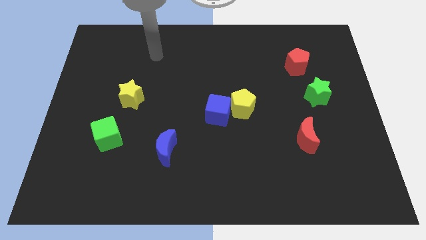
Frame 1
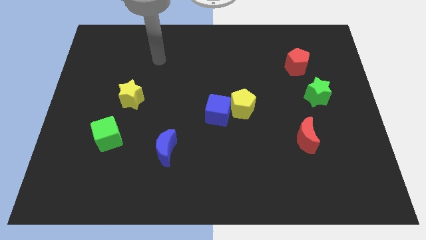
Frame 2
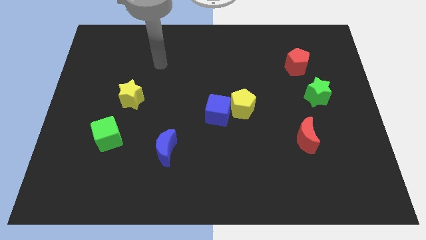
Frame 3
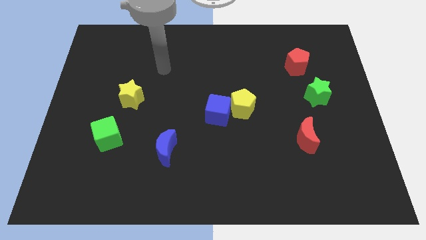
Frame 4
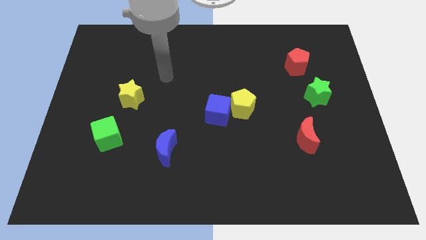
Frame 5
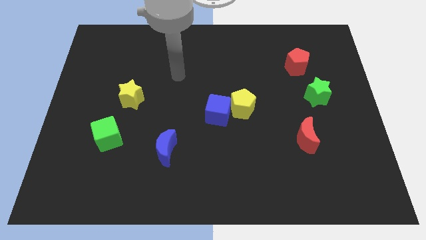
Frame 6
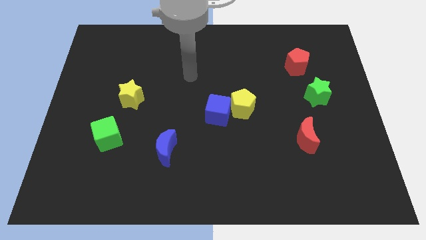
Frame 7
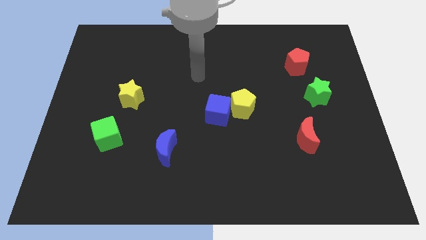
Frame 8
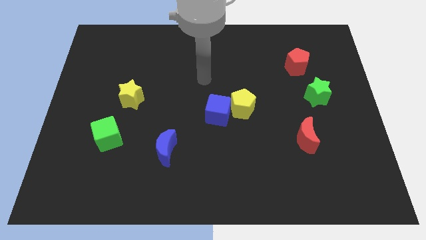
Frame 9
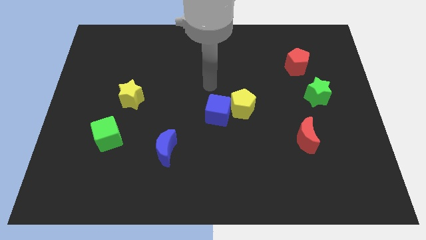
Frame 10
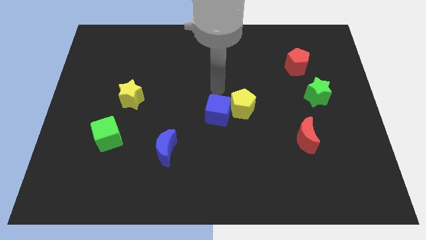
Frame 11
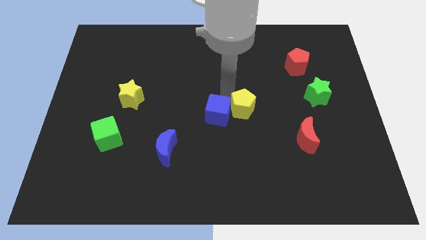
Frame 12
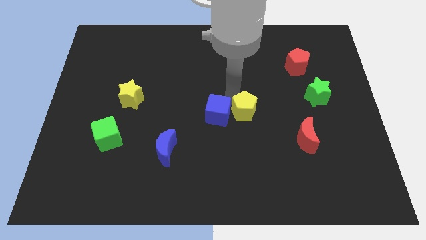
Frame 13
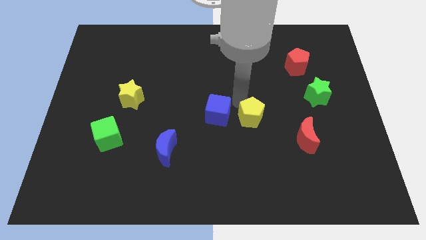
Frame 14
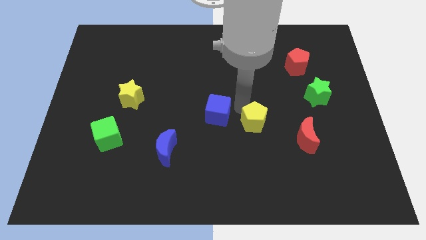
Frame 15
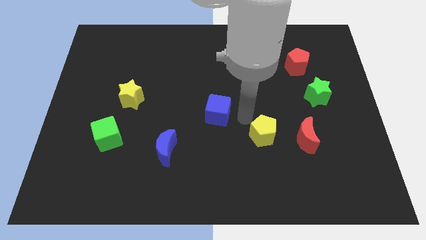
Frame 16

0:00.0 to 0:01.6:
separate the blue cube from the yellow pentagon

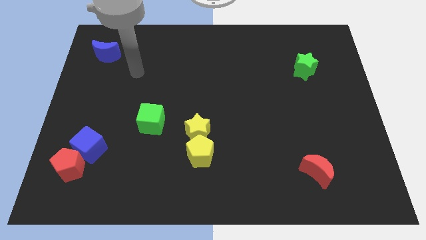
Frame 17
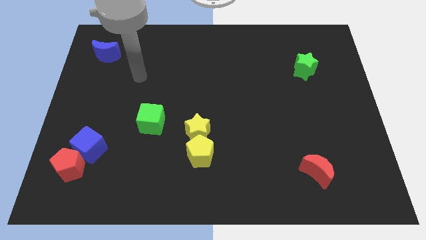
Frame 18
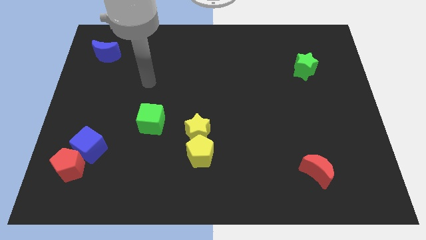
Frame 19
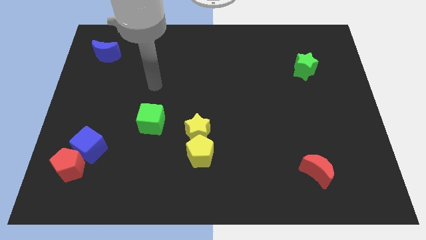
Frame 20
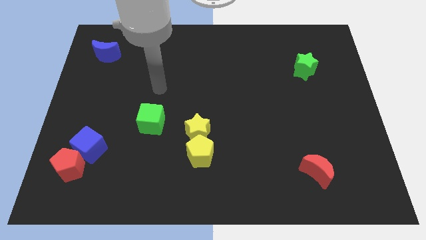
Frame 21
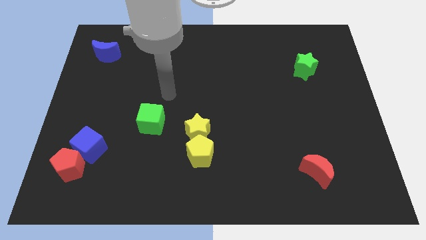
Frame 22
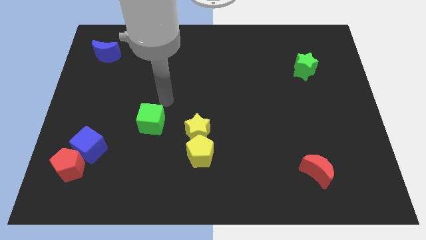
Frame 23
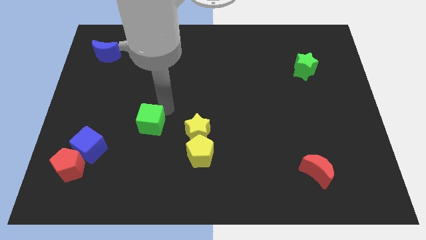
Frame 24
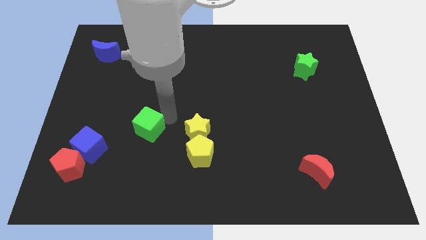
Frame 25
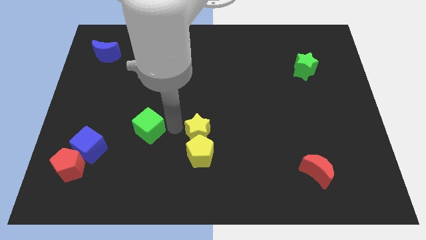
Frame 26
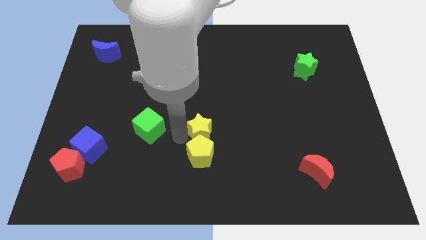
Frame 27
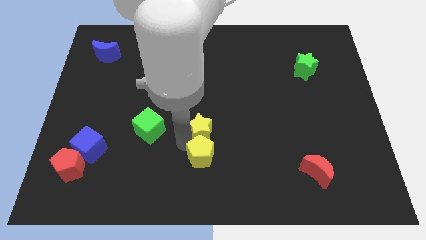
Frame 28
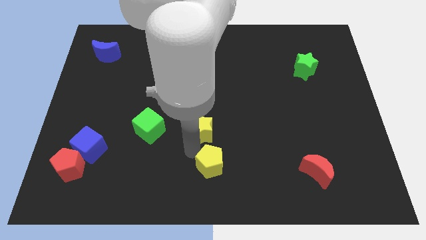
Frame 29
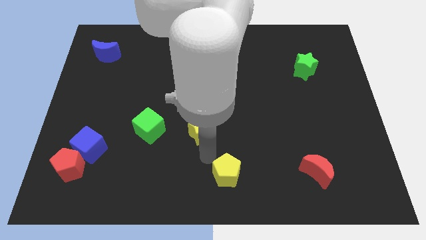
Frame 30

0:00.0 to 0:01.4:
pull the yellow star apart from the yellow pentagon

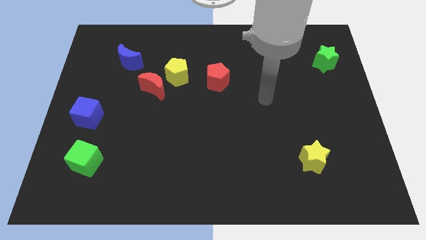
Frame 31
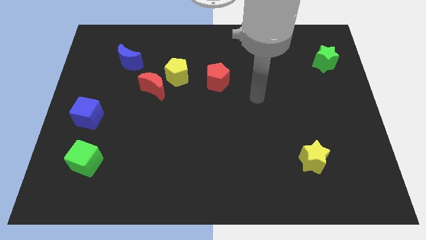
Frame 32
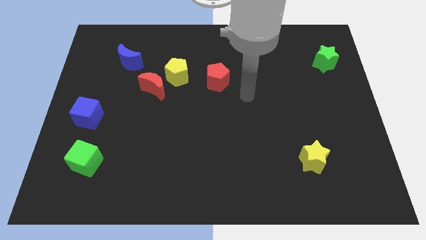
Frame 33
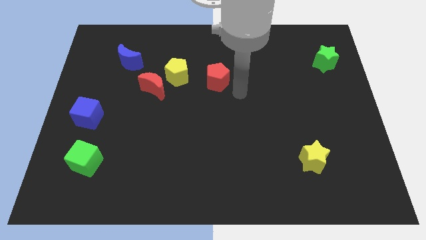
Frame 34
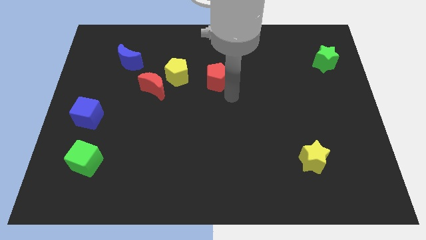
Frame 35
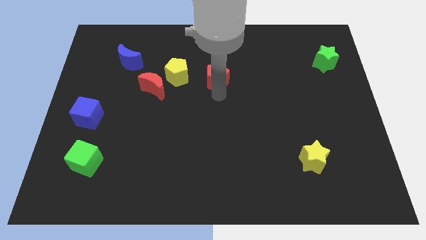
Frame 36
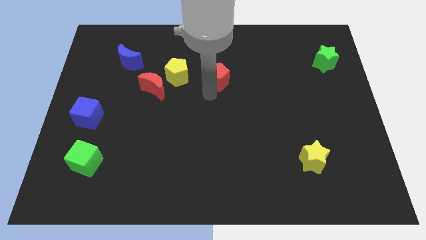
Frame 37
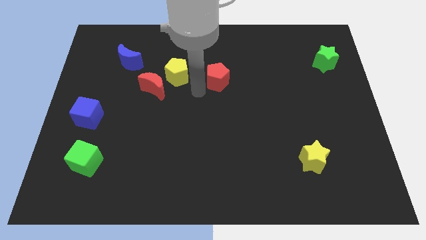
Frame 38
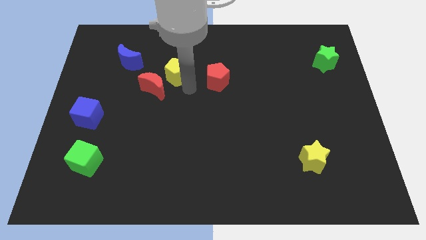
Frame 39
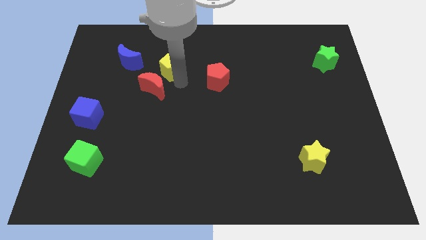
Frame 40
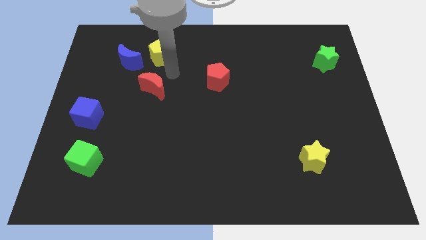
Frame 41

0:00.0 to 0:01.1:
move the red moon away from the yellow pentagon

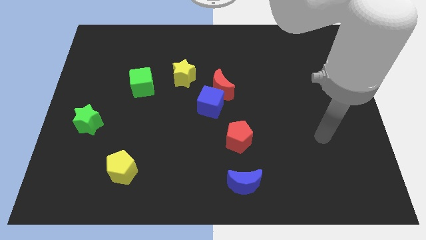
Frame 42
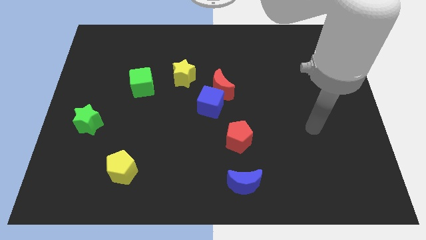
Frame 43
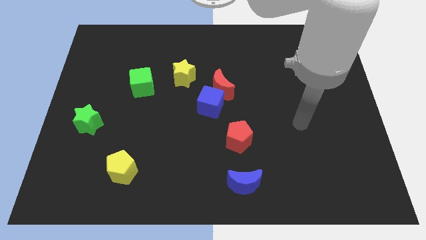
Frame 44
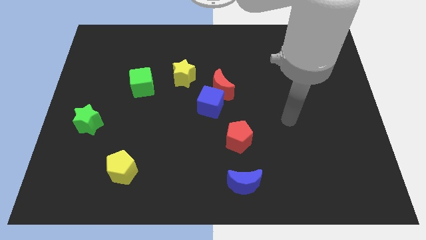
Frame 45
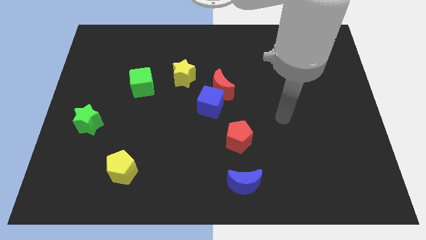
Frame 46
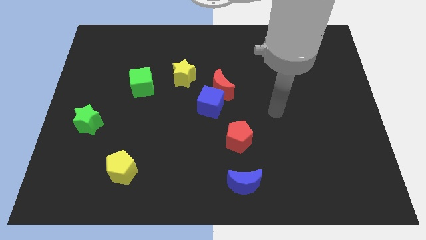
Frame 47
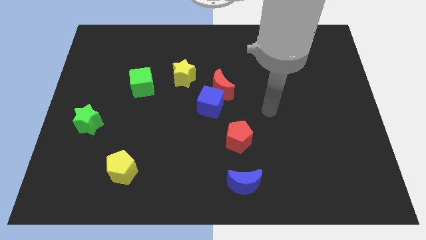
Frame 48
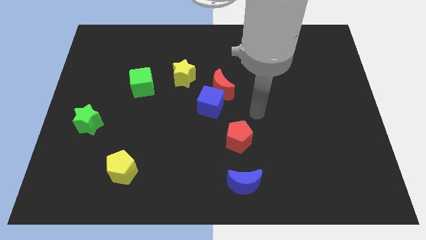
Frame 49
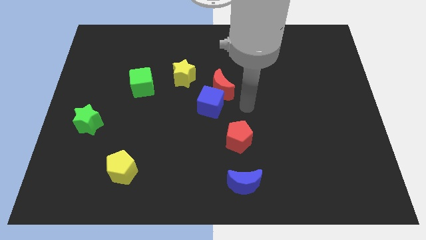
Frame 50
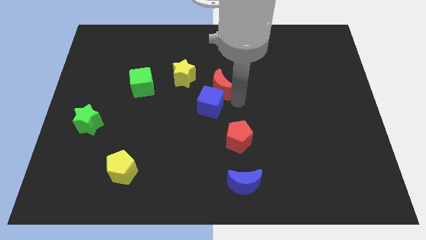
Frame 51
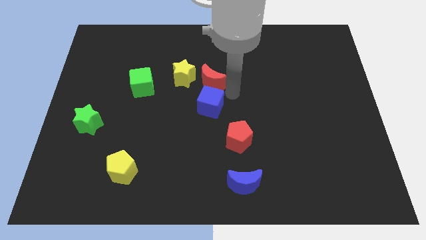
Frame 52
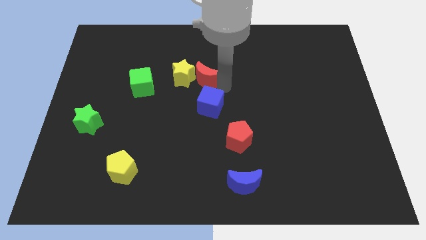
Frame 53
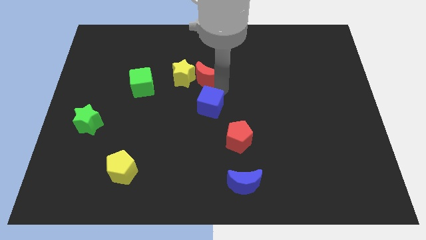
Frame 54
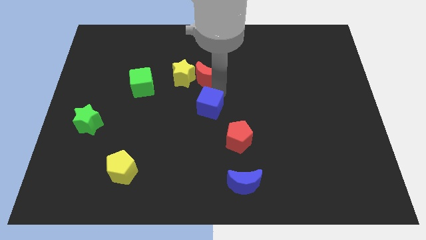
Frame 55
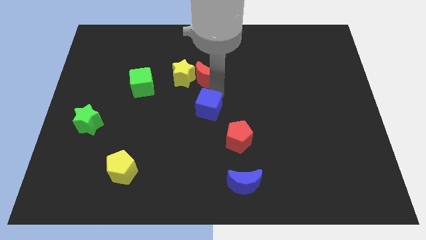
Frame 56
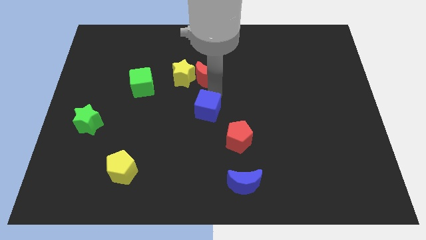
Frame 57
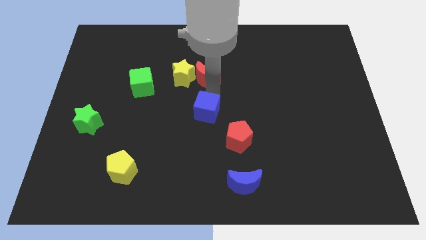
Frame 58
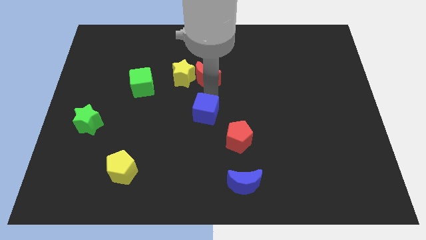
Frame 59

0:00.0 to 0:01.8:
pull the blue cube apart from the red moon

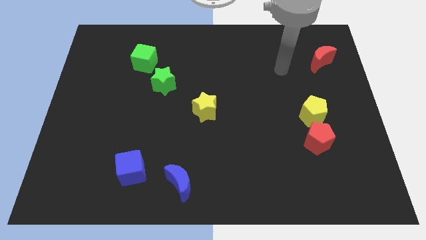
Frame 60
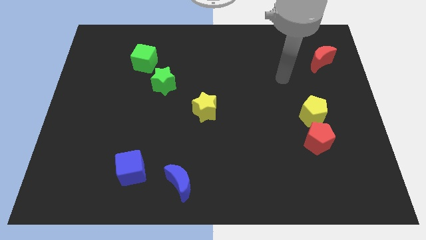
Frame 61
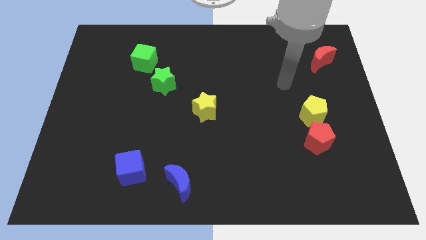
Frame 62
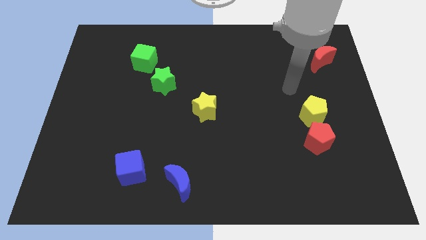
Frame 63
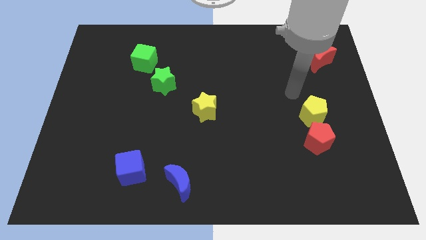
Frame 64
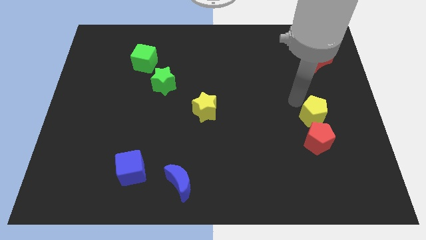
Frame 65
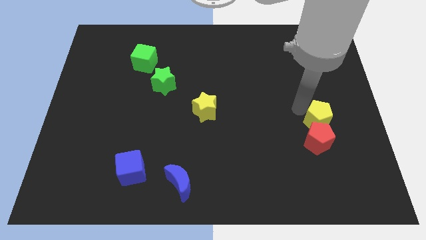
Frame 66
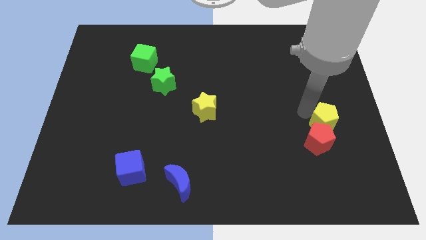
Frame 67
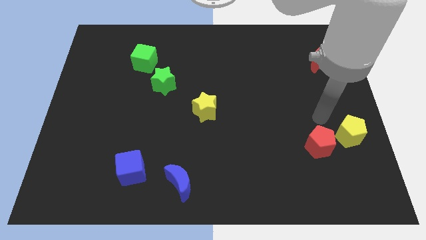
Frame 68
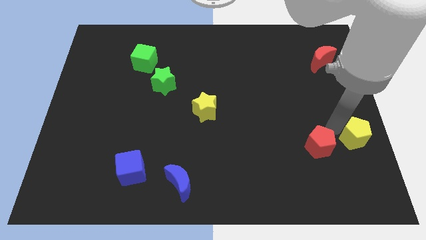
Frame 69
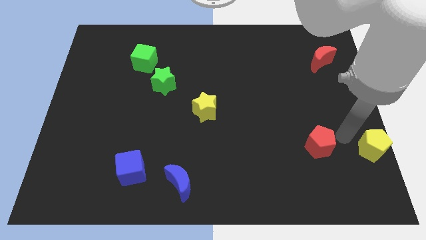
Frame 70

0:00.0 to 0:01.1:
pull the red pentagon apart from the yellow pentagon

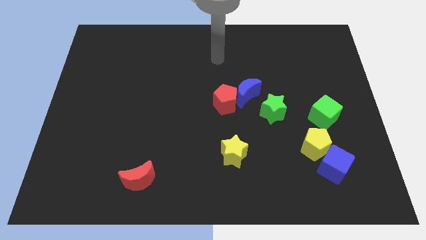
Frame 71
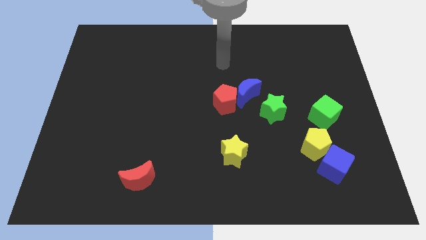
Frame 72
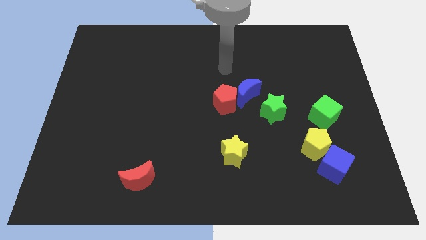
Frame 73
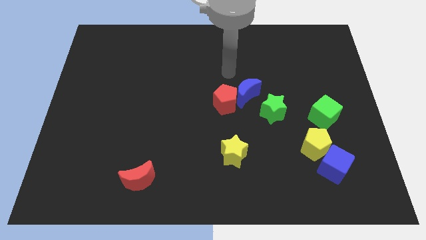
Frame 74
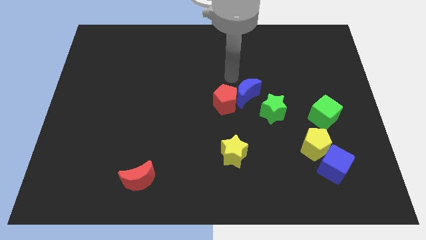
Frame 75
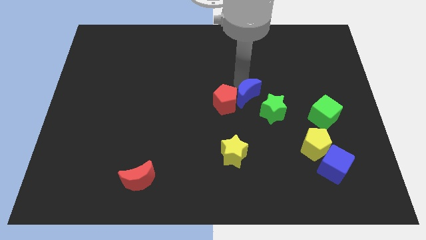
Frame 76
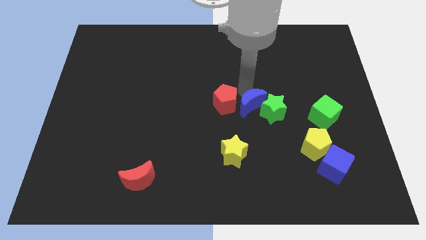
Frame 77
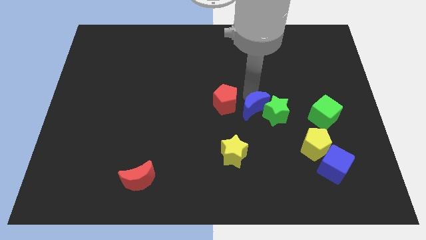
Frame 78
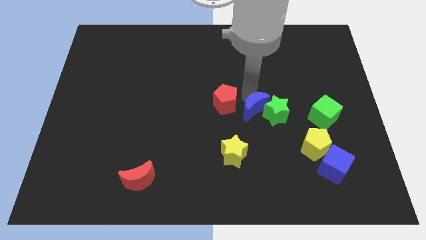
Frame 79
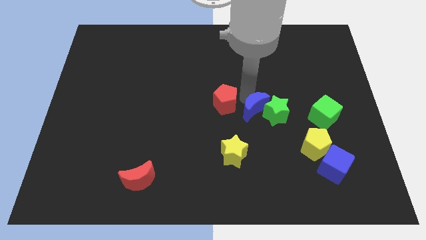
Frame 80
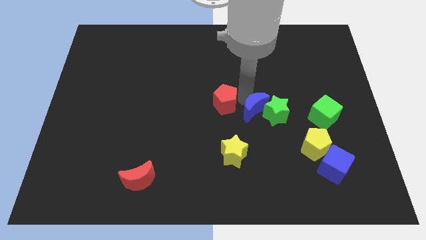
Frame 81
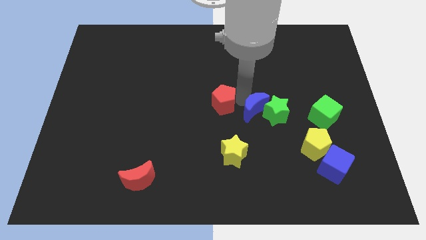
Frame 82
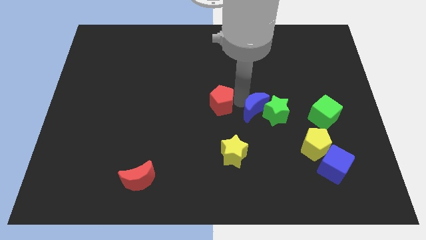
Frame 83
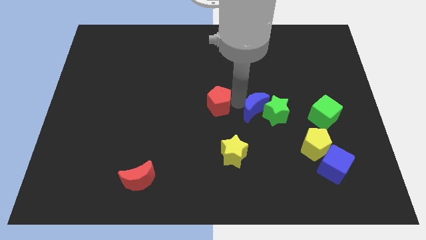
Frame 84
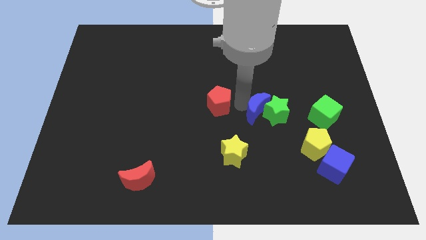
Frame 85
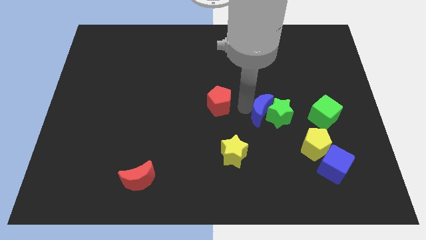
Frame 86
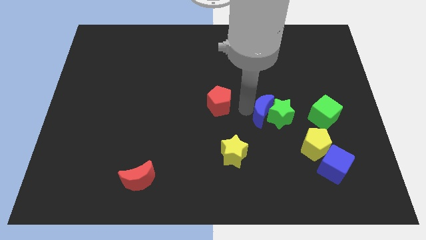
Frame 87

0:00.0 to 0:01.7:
pull the red pentagon apart from the blue moon

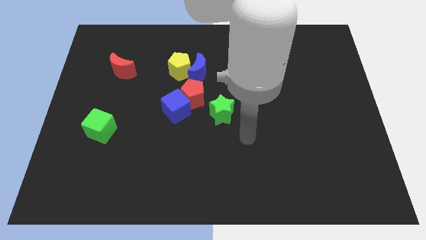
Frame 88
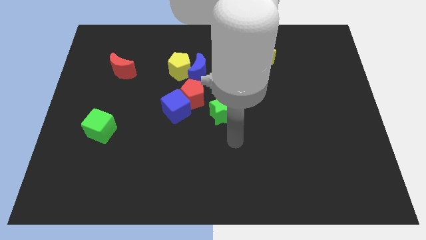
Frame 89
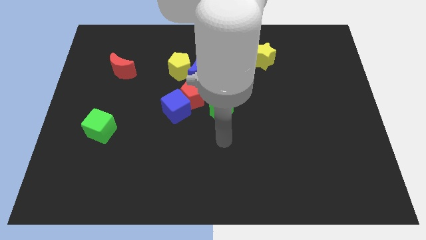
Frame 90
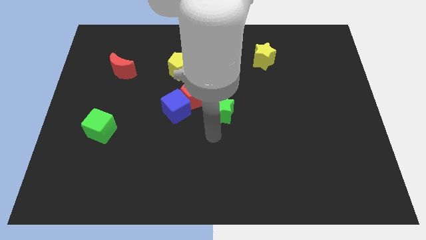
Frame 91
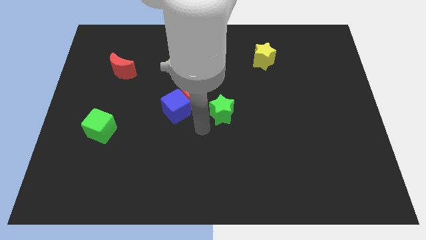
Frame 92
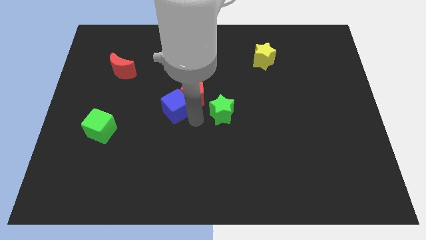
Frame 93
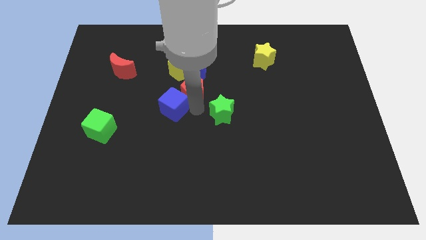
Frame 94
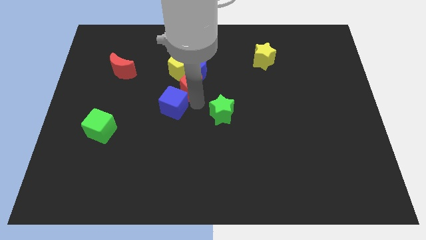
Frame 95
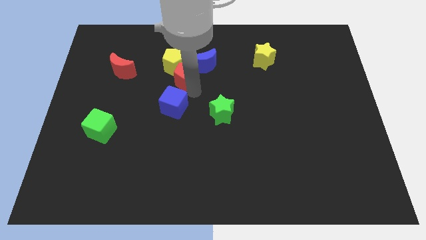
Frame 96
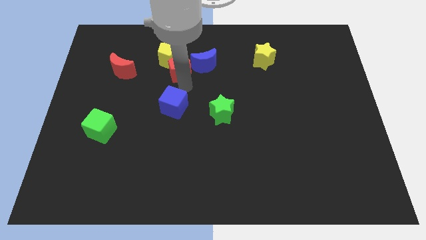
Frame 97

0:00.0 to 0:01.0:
move the blue cube away from the red pentagon
